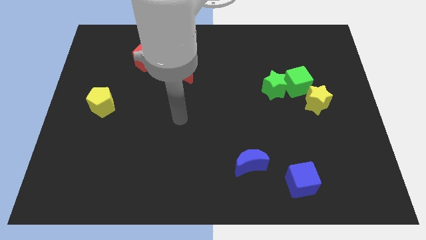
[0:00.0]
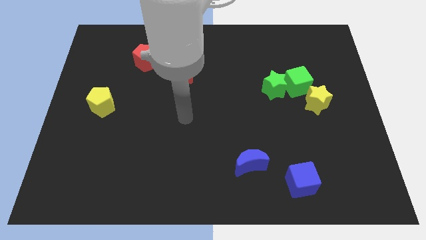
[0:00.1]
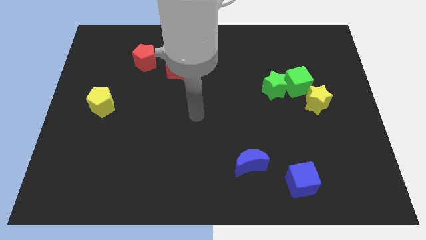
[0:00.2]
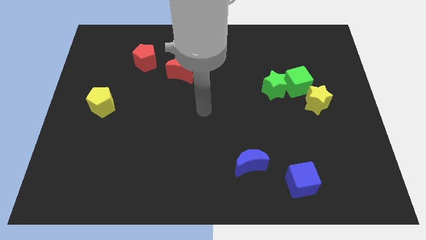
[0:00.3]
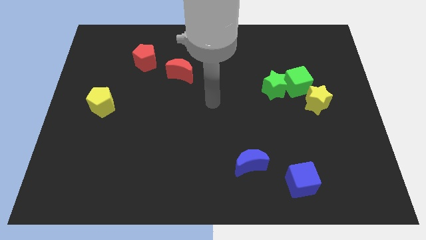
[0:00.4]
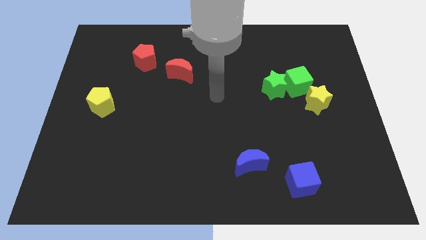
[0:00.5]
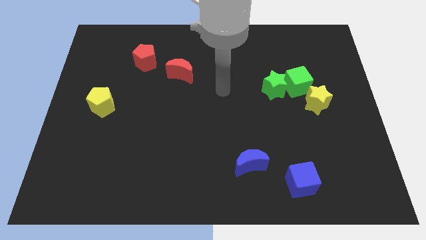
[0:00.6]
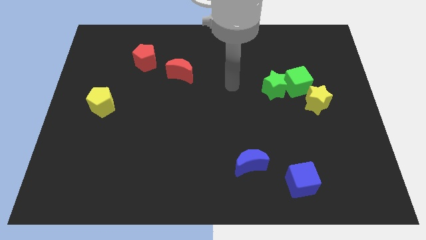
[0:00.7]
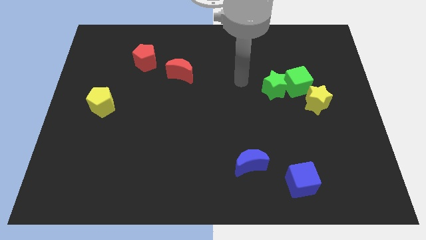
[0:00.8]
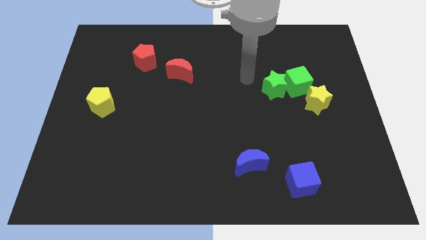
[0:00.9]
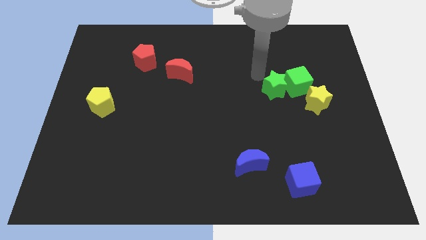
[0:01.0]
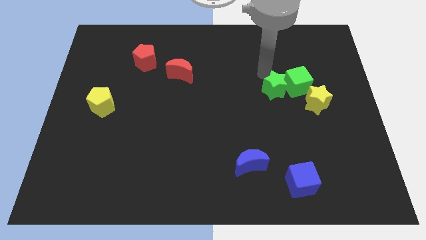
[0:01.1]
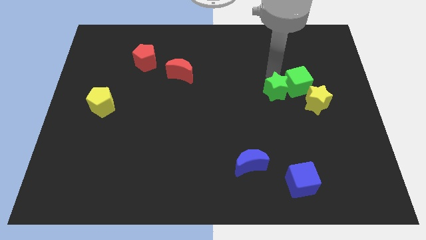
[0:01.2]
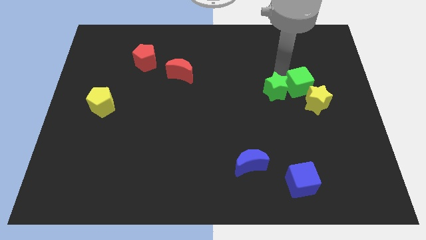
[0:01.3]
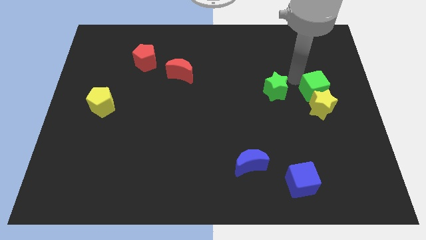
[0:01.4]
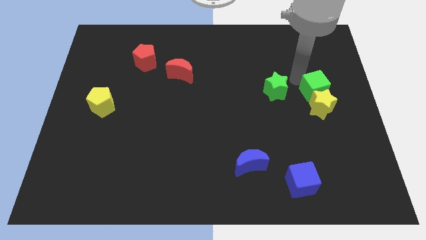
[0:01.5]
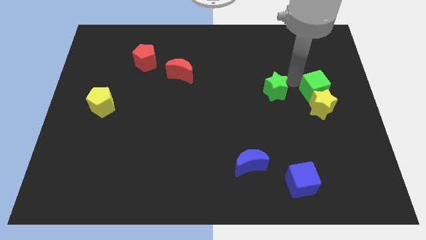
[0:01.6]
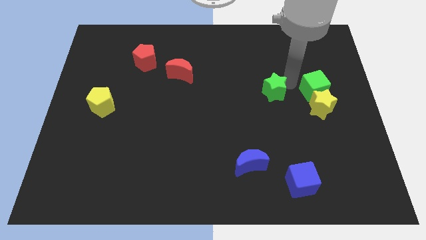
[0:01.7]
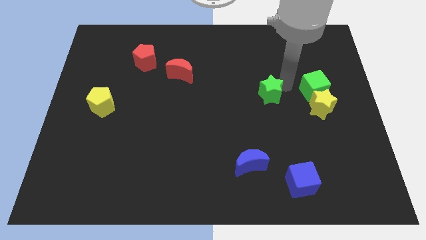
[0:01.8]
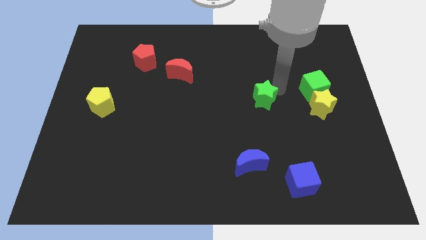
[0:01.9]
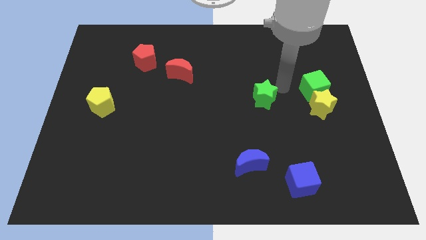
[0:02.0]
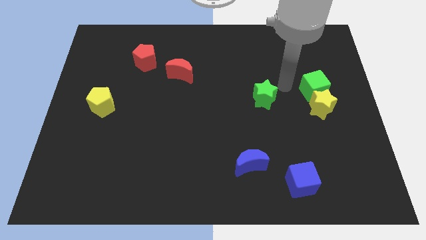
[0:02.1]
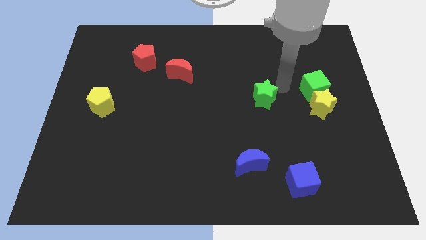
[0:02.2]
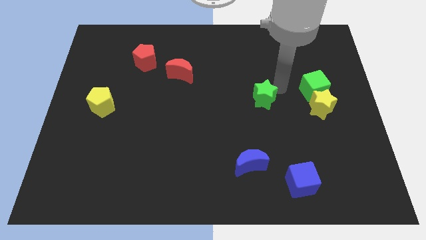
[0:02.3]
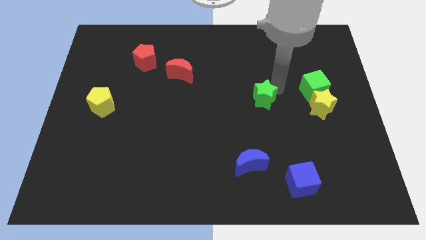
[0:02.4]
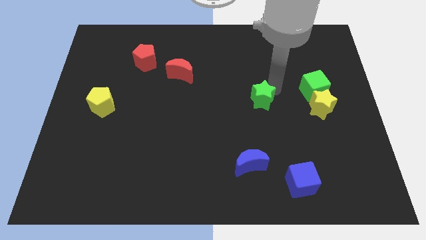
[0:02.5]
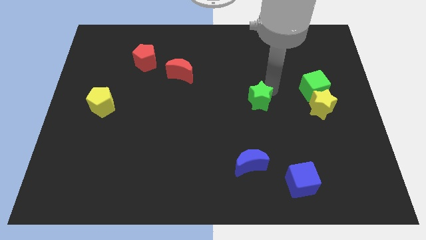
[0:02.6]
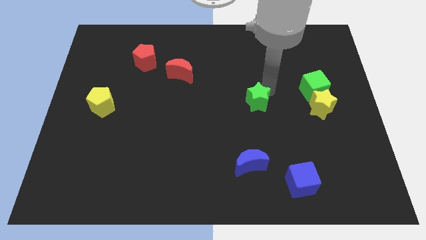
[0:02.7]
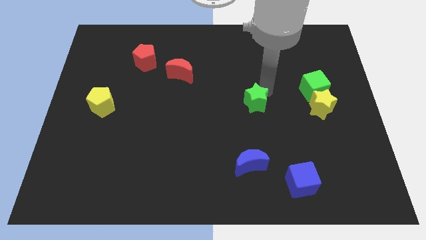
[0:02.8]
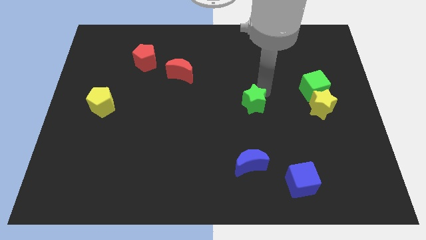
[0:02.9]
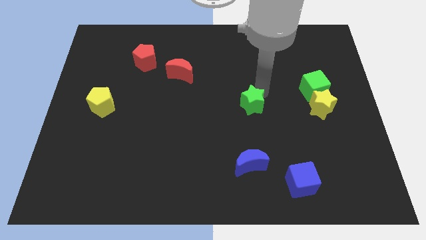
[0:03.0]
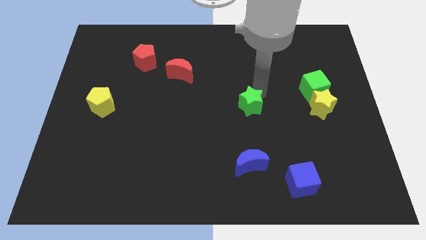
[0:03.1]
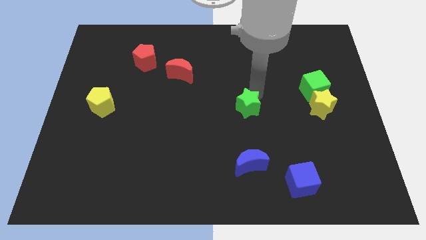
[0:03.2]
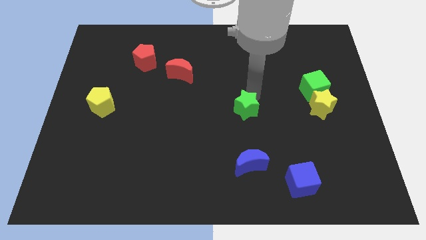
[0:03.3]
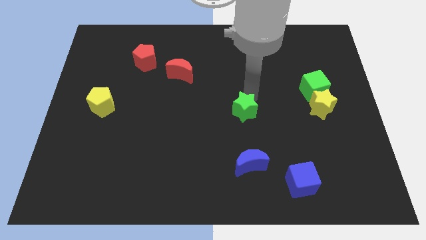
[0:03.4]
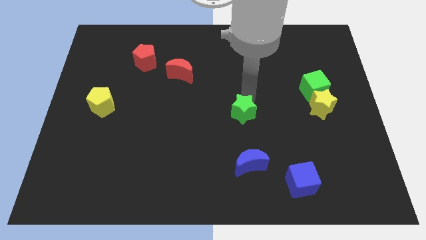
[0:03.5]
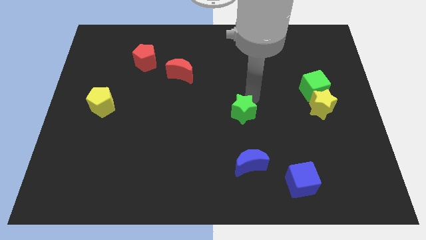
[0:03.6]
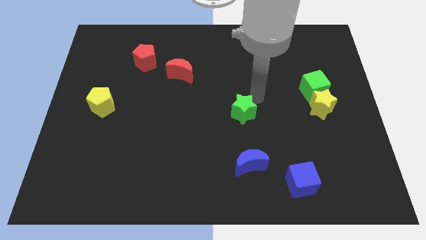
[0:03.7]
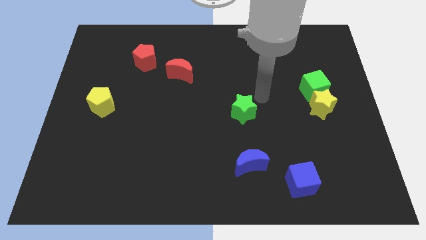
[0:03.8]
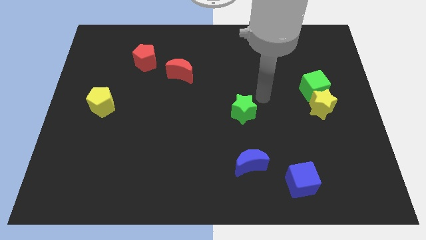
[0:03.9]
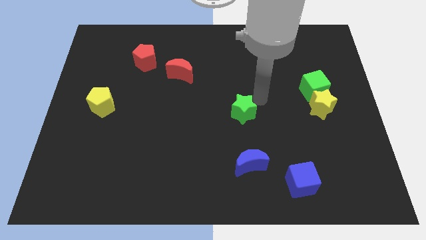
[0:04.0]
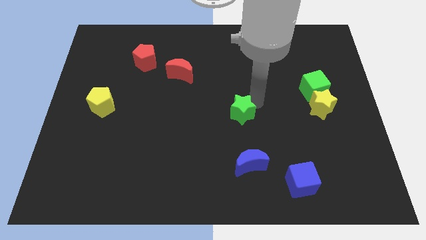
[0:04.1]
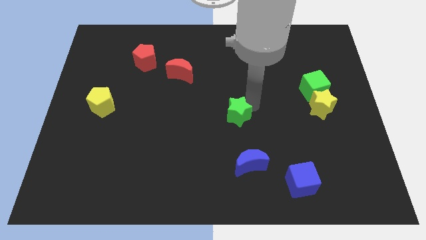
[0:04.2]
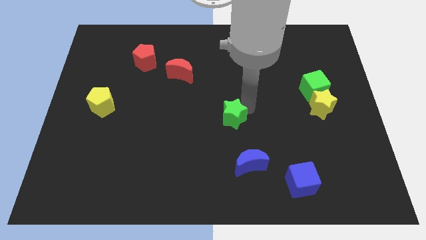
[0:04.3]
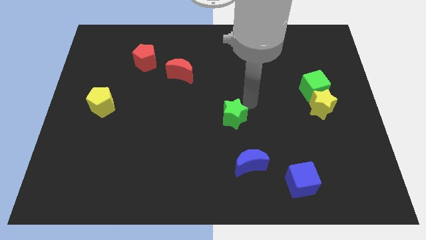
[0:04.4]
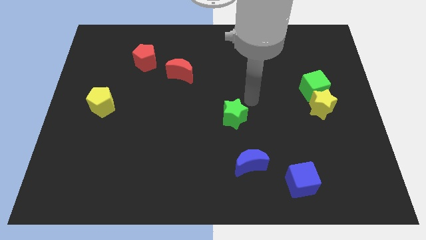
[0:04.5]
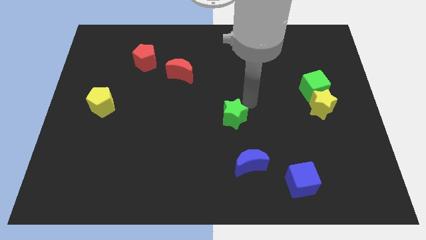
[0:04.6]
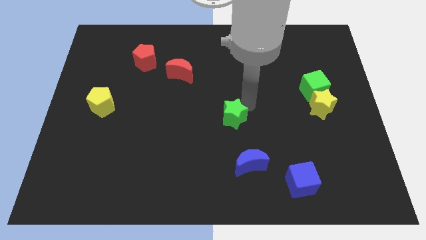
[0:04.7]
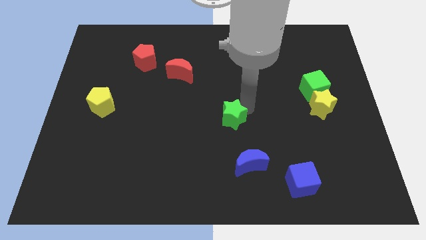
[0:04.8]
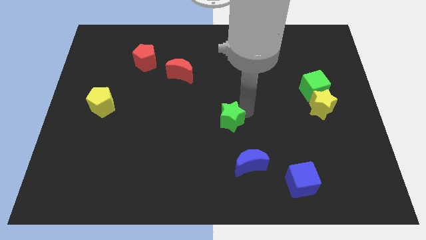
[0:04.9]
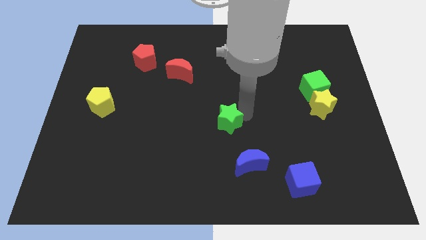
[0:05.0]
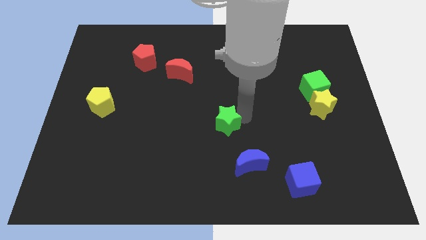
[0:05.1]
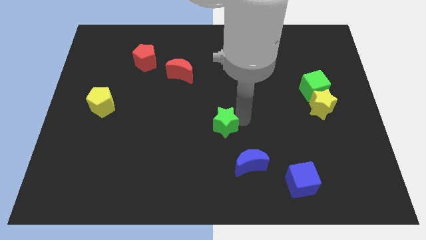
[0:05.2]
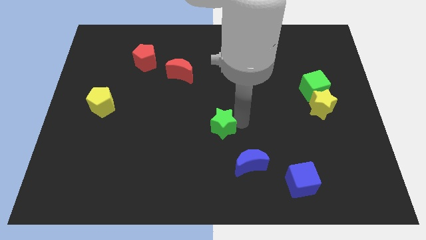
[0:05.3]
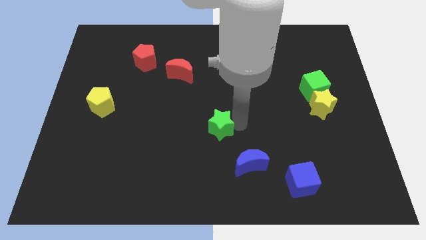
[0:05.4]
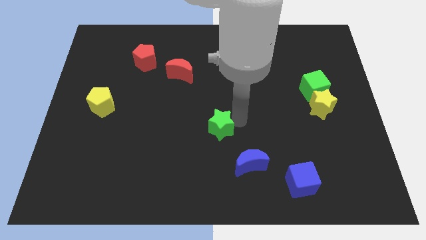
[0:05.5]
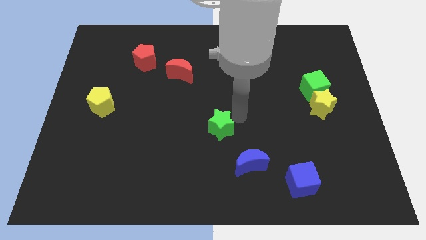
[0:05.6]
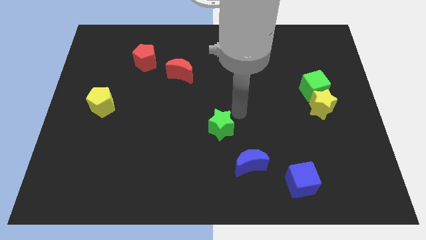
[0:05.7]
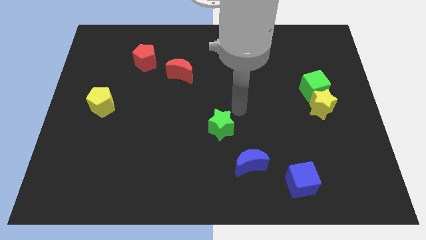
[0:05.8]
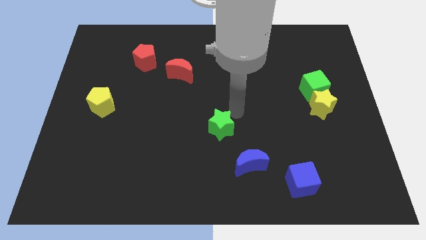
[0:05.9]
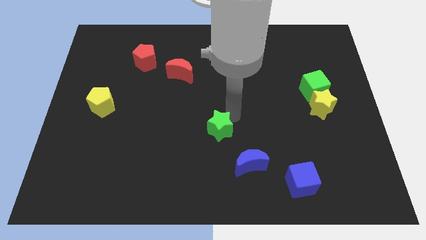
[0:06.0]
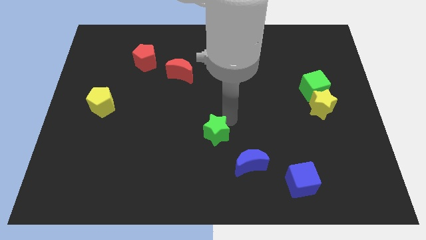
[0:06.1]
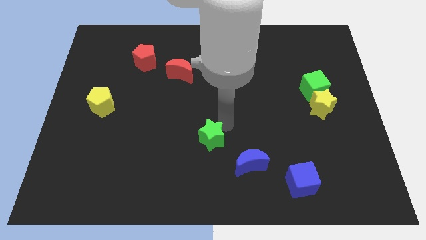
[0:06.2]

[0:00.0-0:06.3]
slide the green star down and to the left diagonally

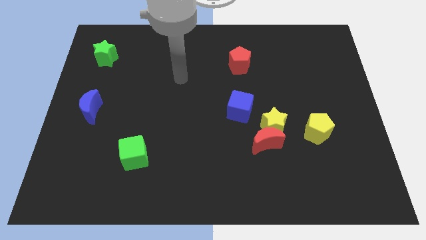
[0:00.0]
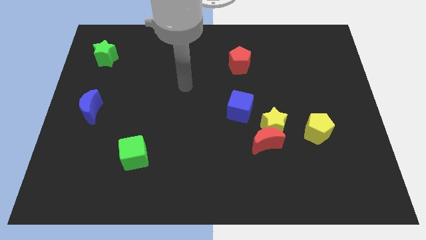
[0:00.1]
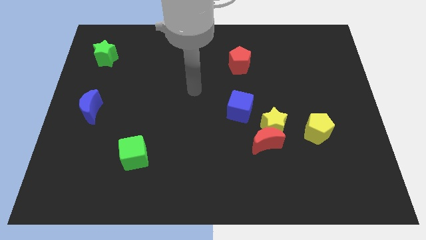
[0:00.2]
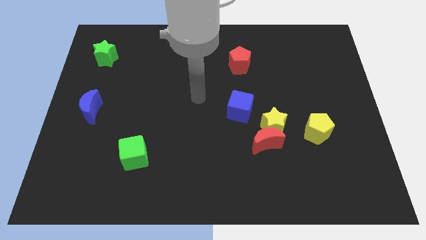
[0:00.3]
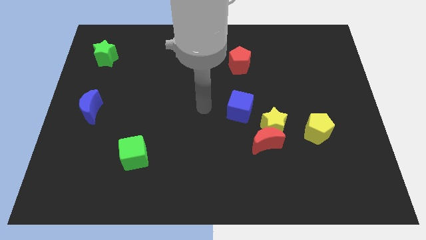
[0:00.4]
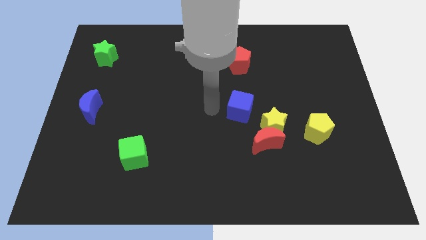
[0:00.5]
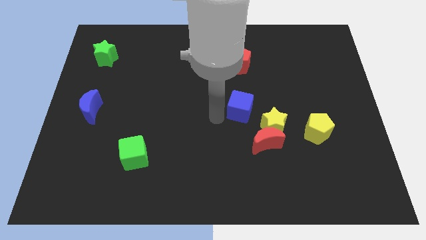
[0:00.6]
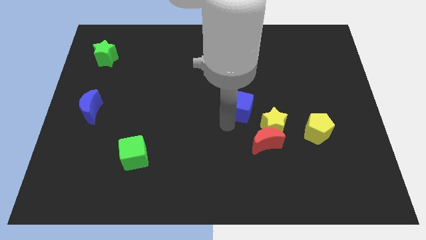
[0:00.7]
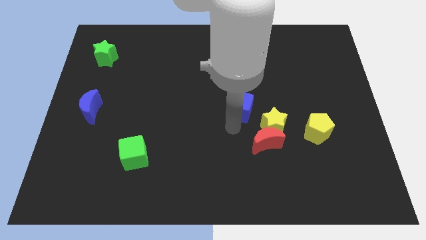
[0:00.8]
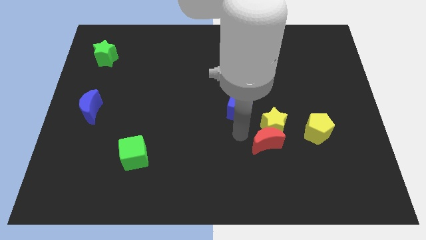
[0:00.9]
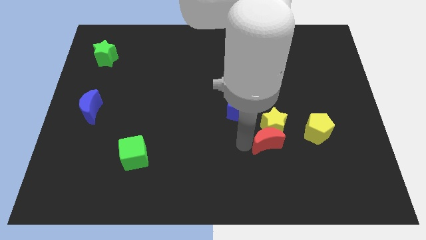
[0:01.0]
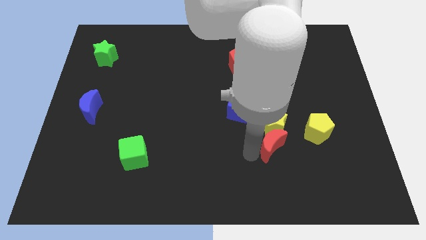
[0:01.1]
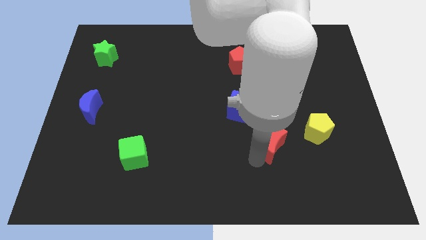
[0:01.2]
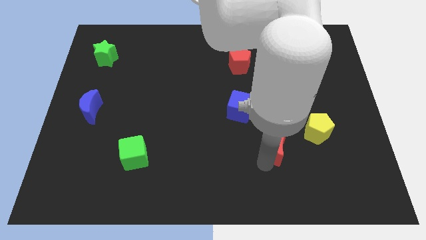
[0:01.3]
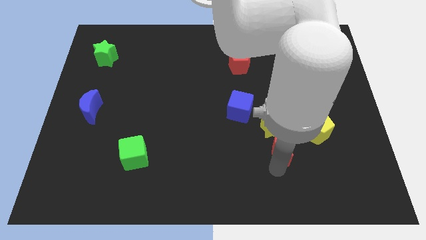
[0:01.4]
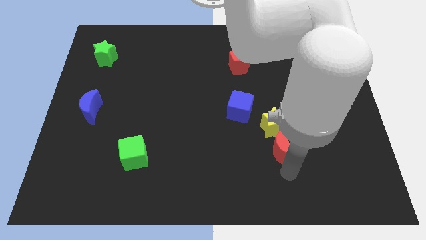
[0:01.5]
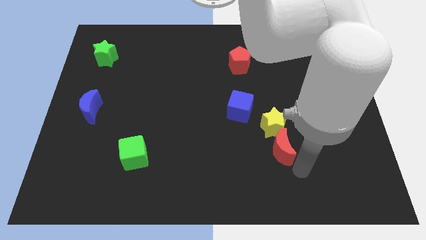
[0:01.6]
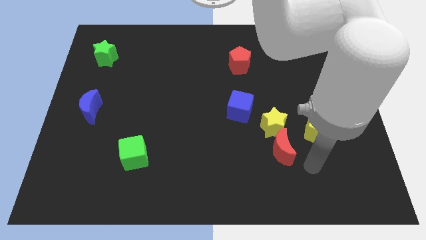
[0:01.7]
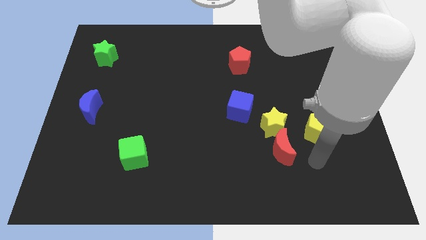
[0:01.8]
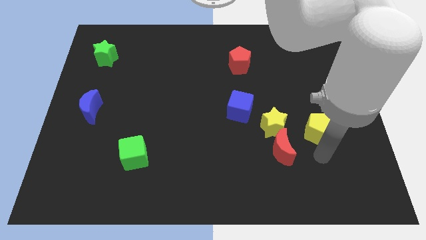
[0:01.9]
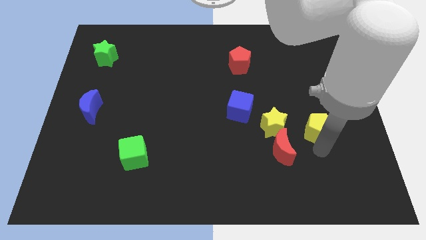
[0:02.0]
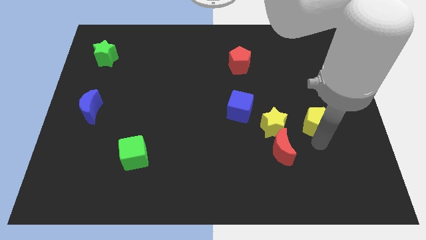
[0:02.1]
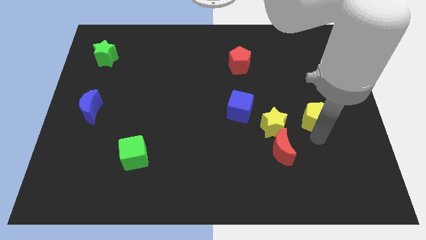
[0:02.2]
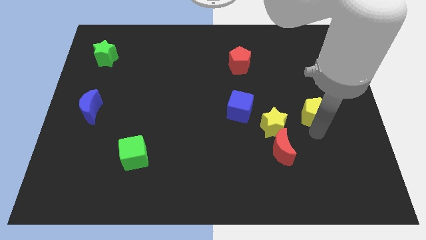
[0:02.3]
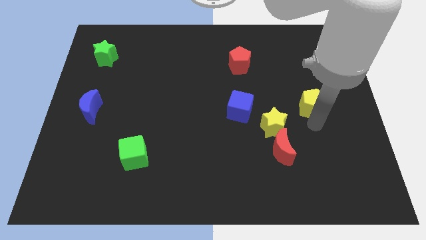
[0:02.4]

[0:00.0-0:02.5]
push the yellow pentagon slightly up

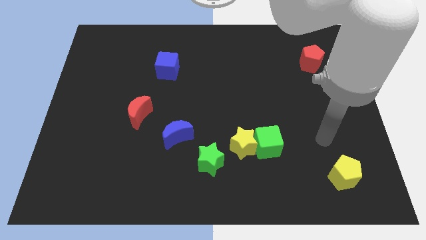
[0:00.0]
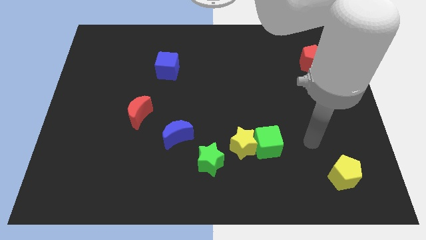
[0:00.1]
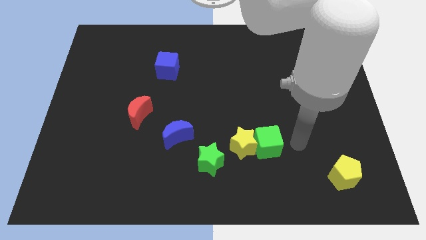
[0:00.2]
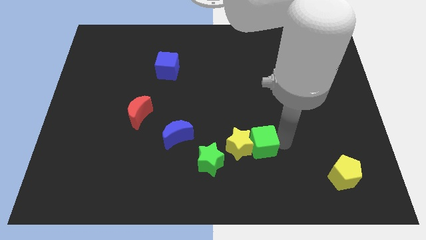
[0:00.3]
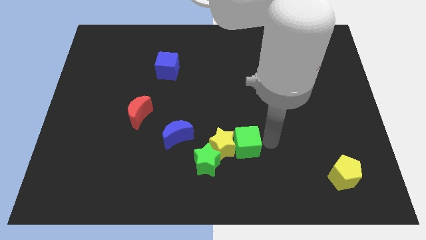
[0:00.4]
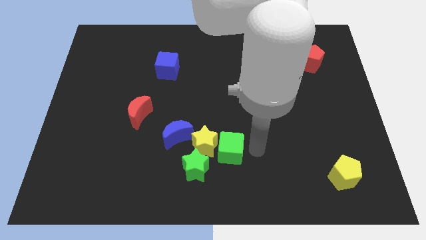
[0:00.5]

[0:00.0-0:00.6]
slide the yellow star a little bit left
